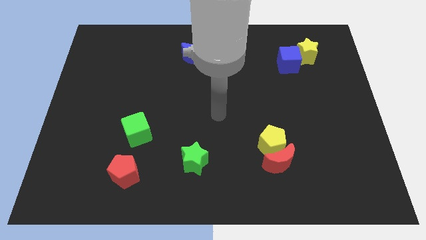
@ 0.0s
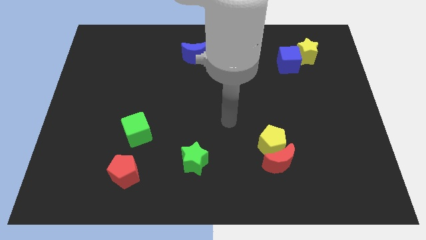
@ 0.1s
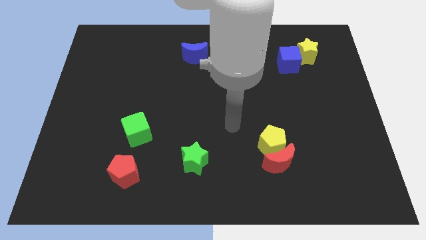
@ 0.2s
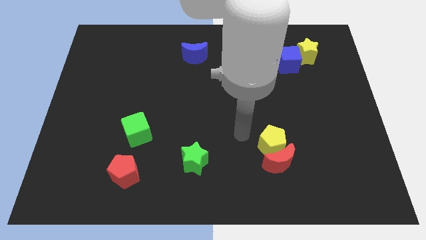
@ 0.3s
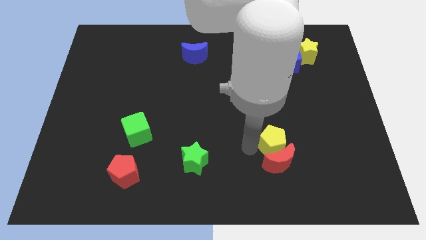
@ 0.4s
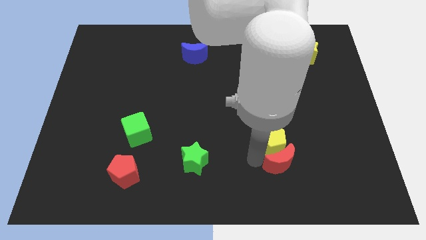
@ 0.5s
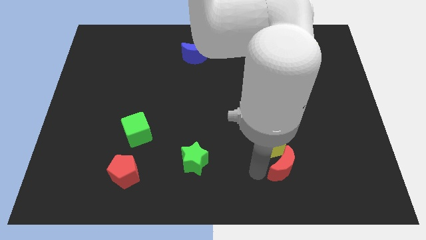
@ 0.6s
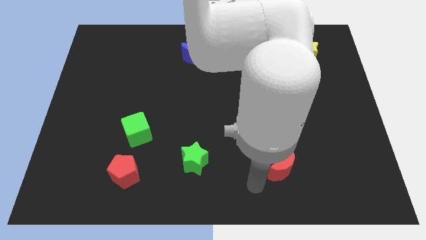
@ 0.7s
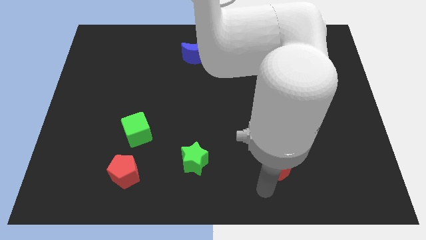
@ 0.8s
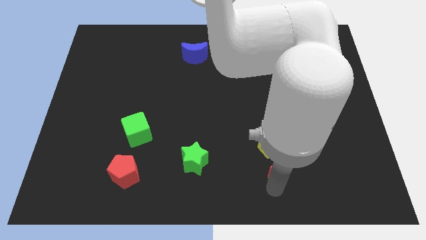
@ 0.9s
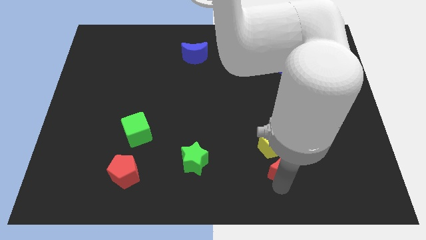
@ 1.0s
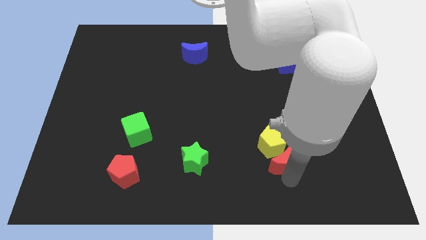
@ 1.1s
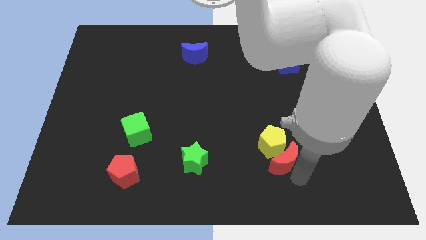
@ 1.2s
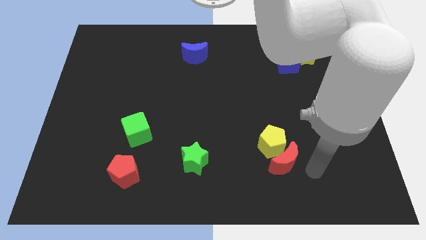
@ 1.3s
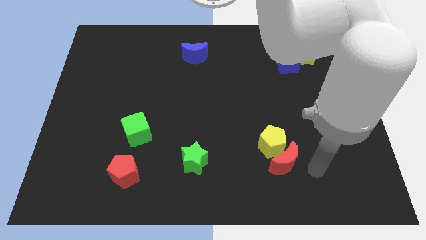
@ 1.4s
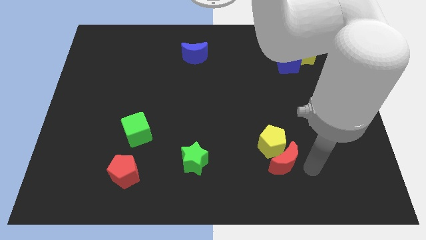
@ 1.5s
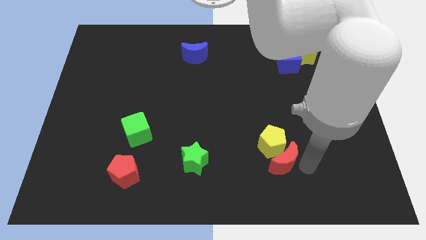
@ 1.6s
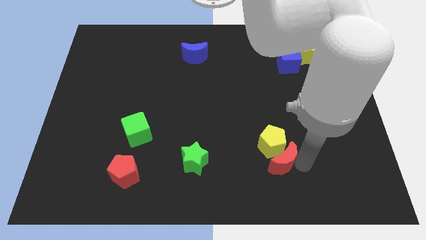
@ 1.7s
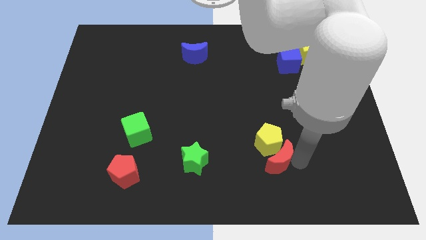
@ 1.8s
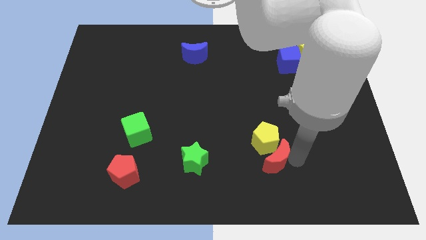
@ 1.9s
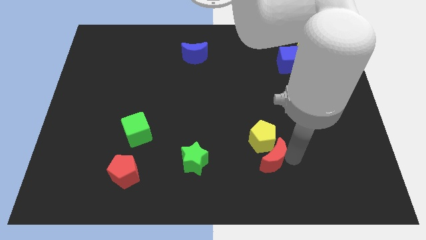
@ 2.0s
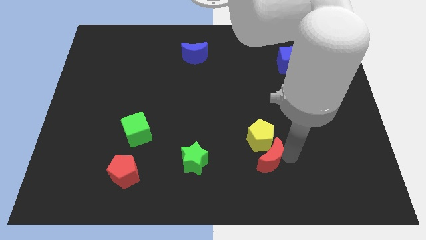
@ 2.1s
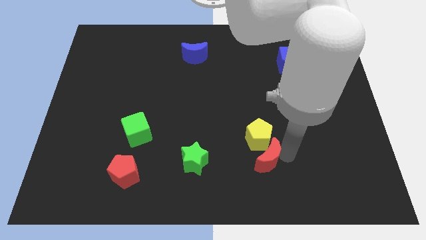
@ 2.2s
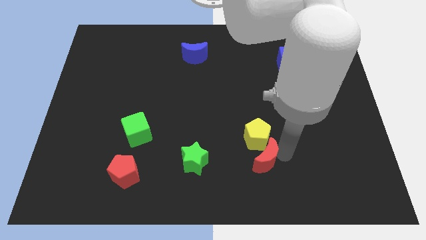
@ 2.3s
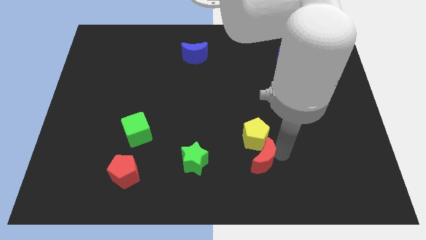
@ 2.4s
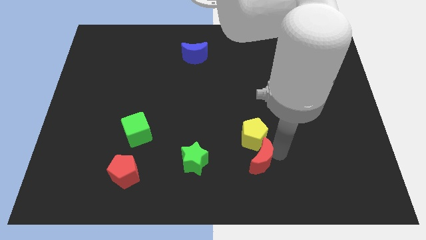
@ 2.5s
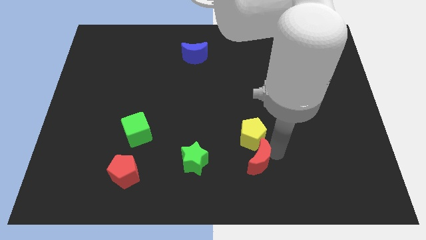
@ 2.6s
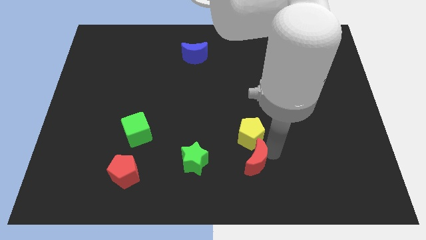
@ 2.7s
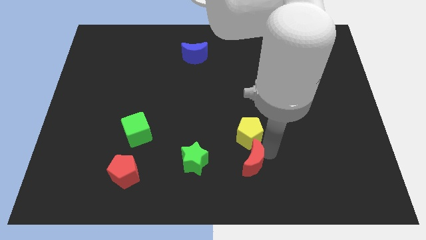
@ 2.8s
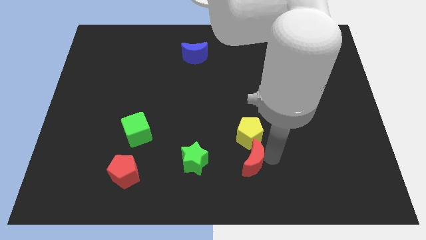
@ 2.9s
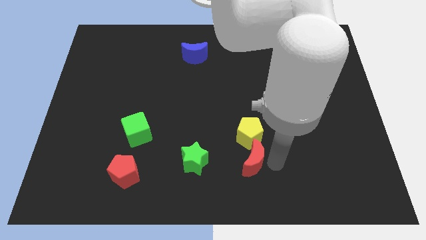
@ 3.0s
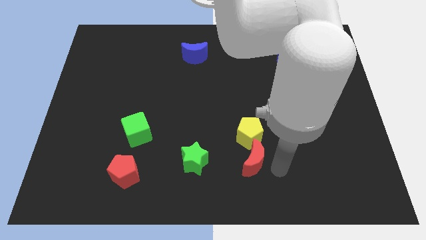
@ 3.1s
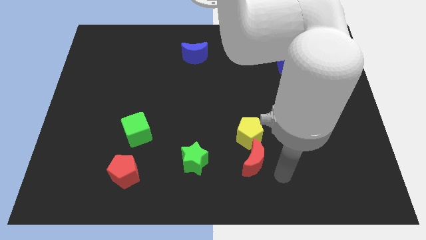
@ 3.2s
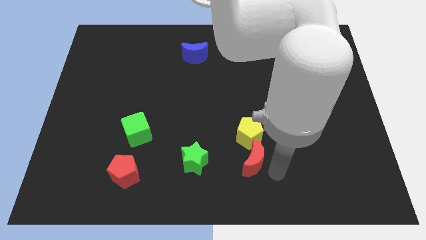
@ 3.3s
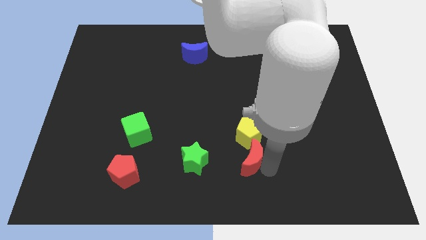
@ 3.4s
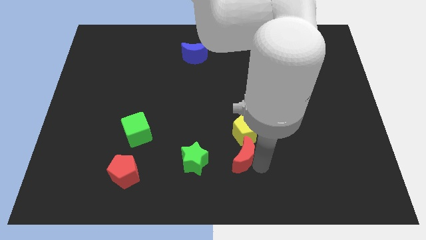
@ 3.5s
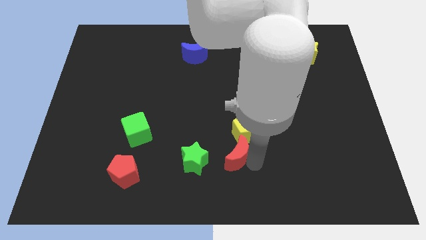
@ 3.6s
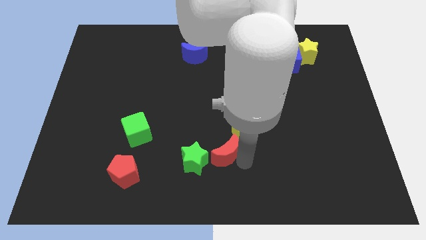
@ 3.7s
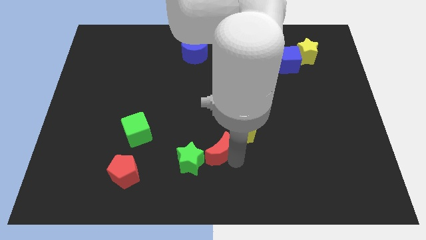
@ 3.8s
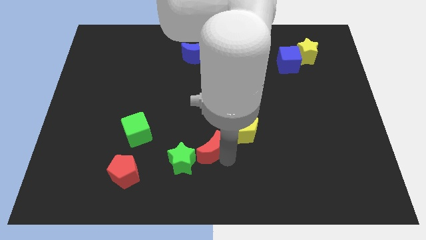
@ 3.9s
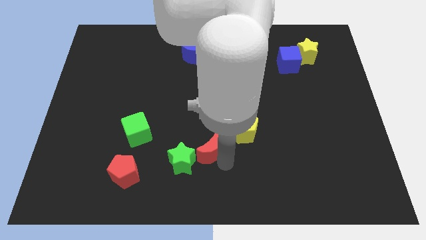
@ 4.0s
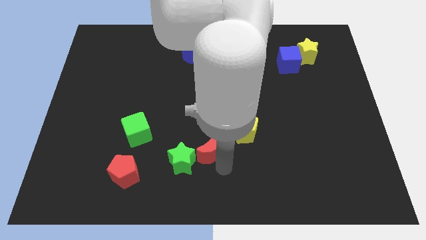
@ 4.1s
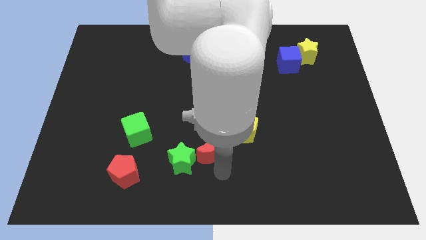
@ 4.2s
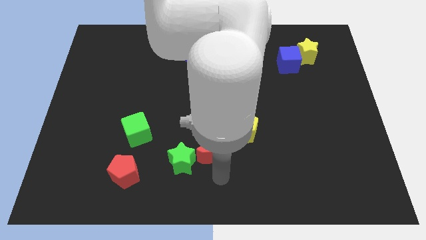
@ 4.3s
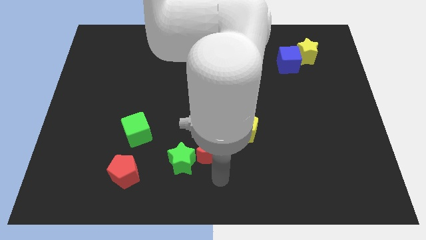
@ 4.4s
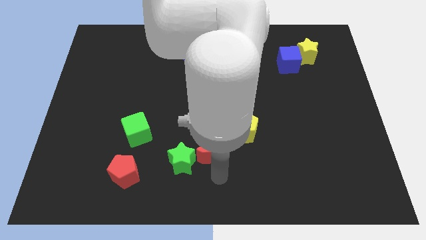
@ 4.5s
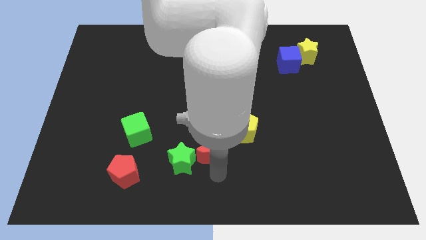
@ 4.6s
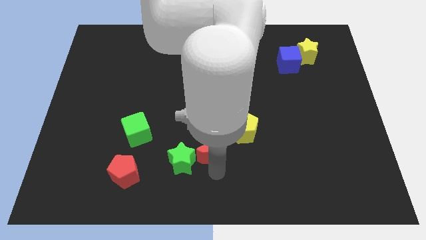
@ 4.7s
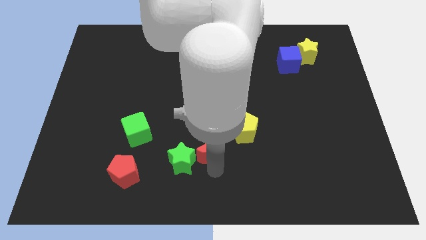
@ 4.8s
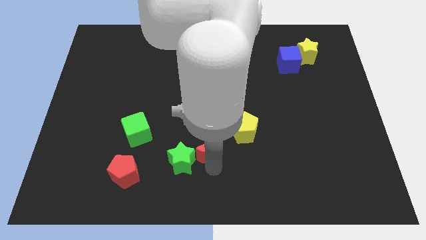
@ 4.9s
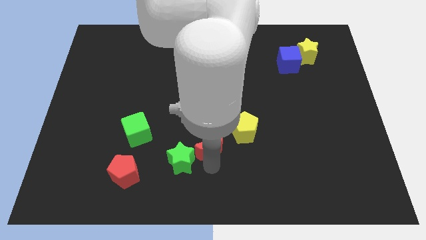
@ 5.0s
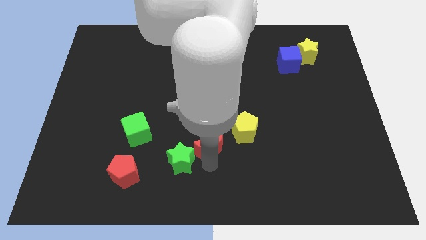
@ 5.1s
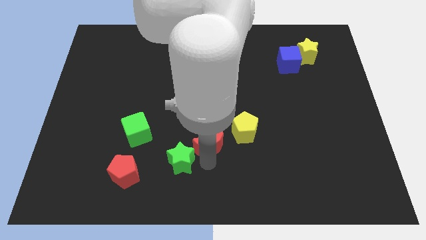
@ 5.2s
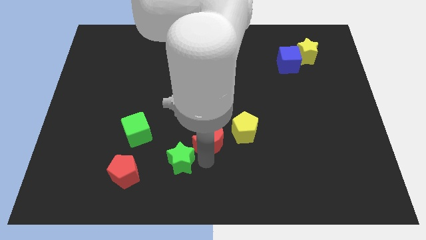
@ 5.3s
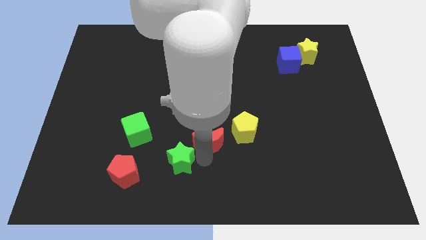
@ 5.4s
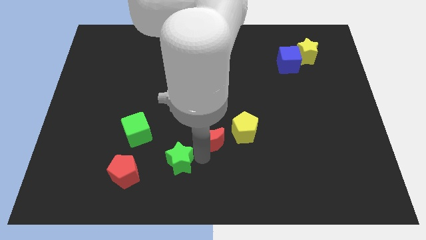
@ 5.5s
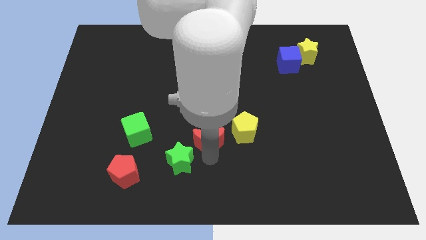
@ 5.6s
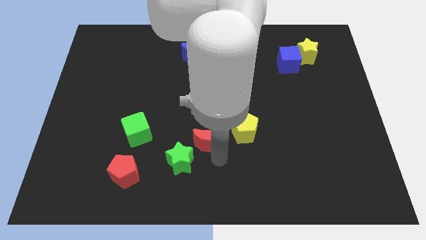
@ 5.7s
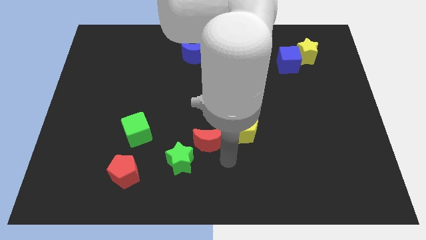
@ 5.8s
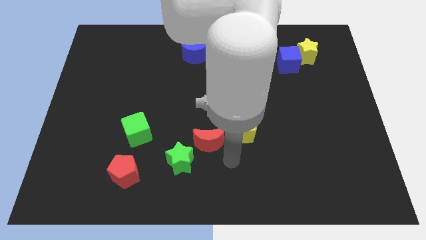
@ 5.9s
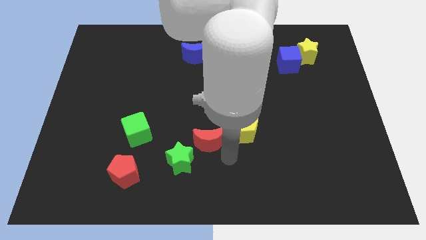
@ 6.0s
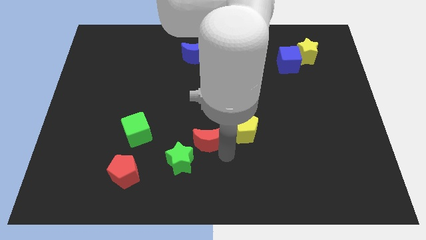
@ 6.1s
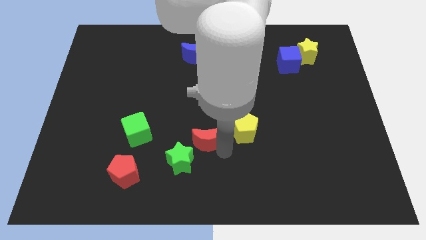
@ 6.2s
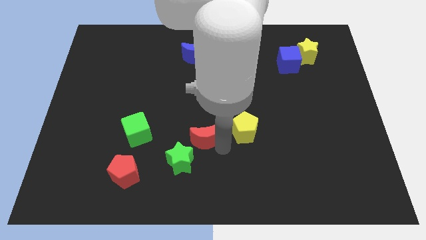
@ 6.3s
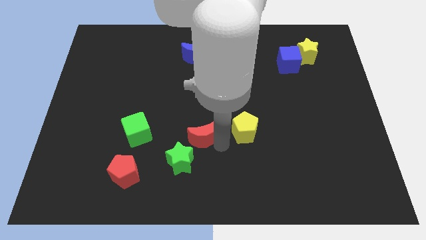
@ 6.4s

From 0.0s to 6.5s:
put the red moon above the green star

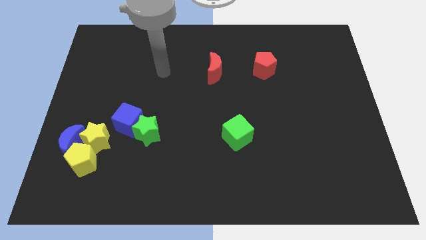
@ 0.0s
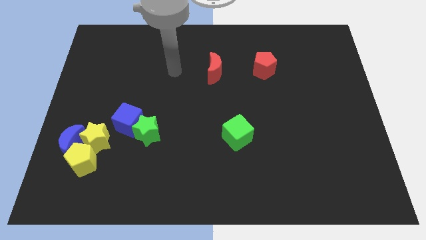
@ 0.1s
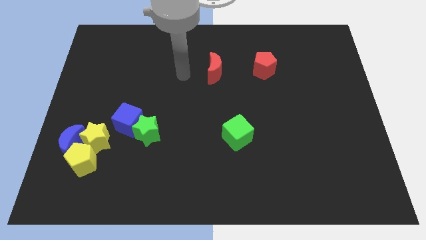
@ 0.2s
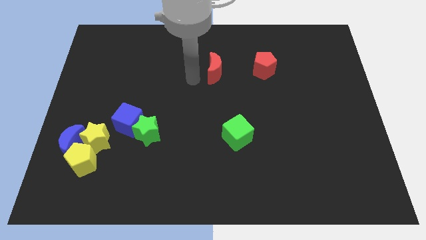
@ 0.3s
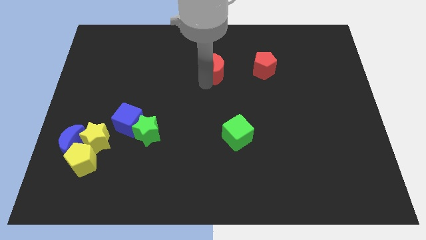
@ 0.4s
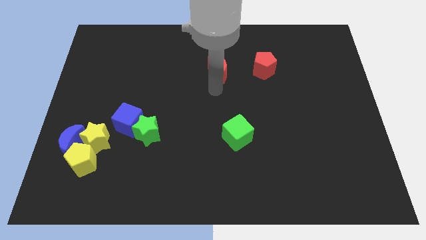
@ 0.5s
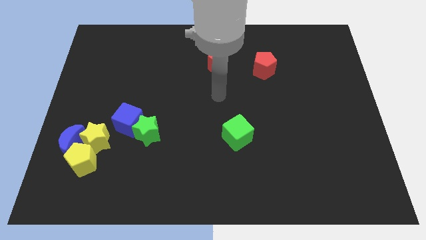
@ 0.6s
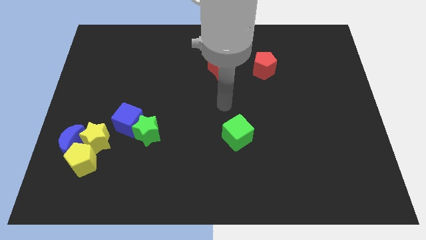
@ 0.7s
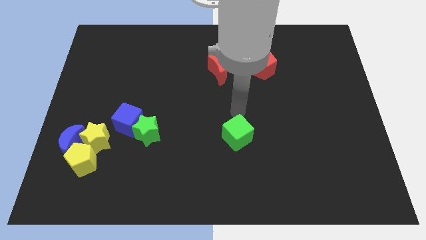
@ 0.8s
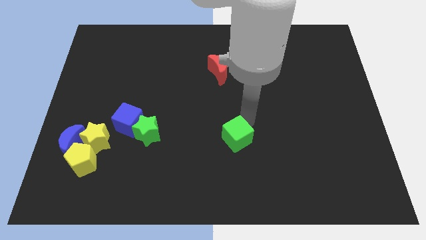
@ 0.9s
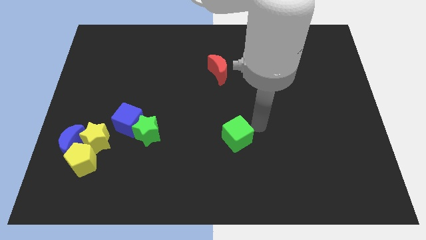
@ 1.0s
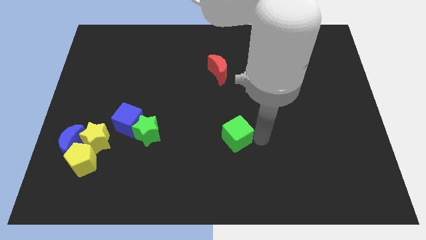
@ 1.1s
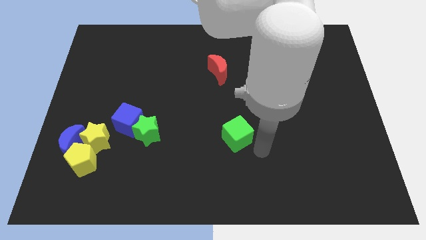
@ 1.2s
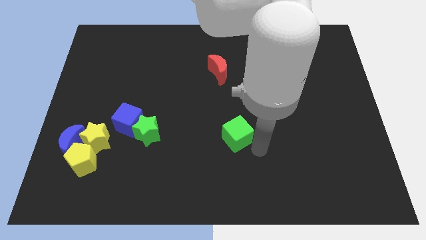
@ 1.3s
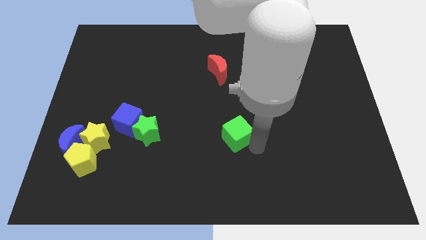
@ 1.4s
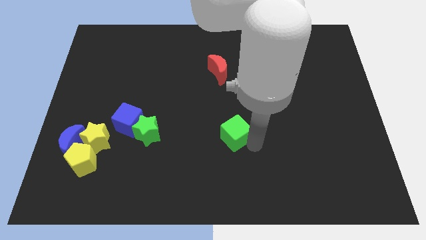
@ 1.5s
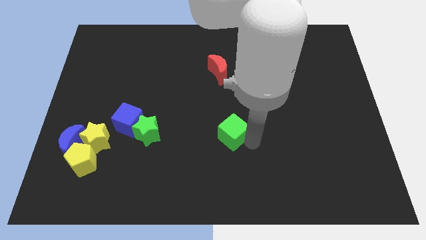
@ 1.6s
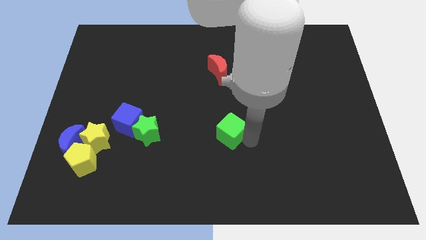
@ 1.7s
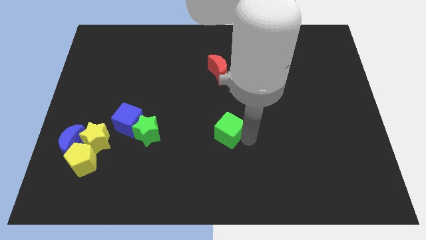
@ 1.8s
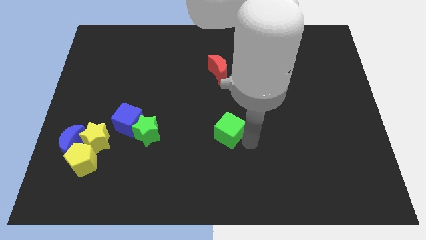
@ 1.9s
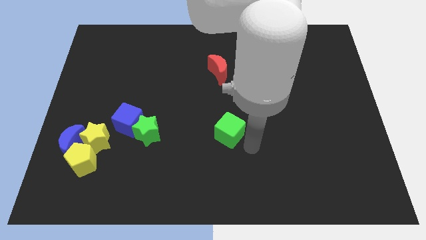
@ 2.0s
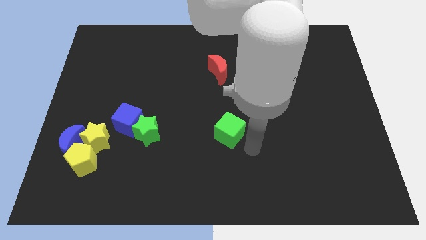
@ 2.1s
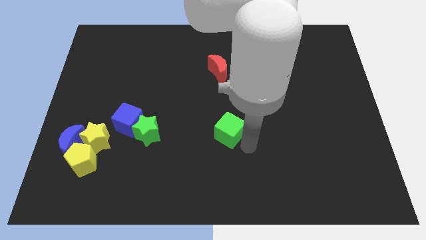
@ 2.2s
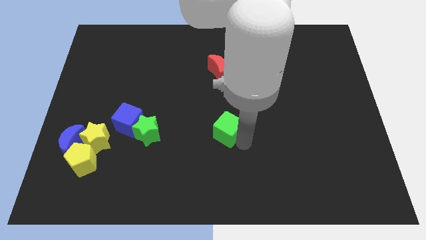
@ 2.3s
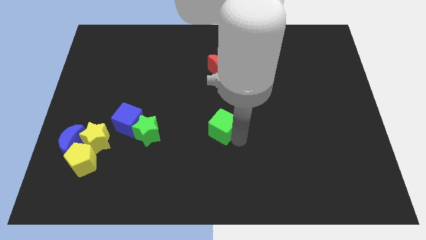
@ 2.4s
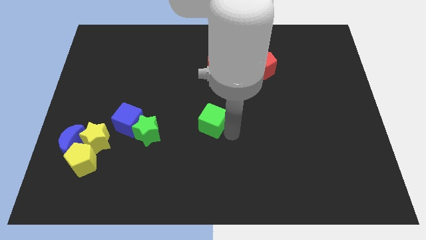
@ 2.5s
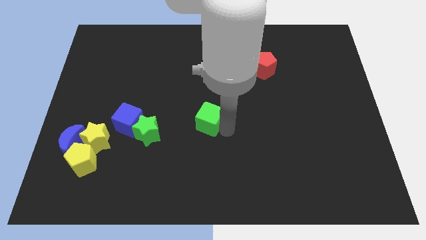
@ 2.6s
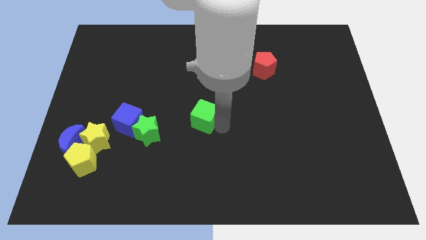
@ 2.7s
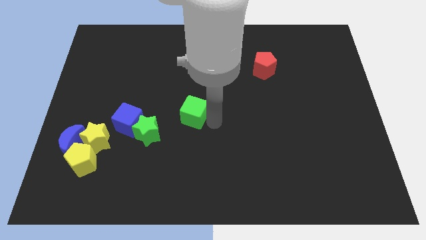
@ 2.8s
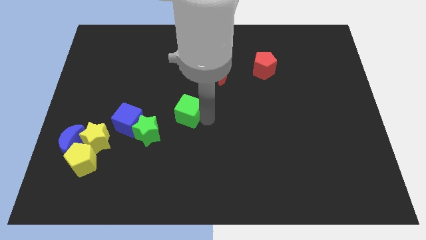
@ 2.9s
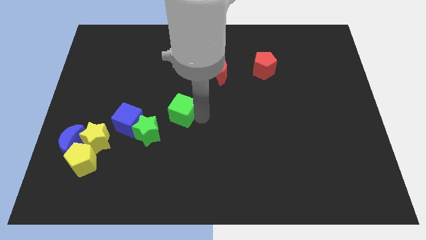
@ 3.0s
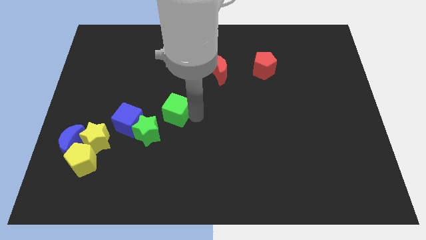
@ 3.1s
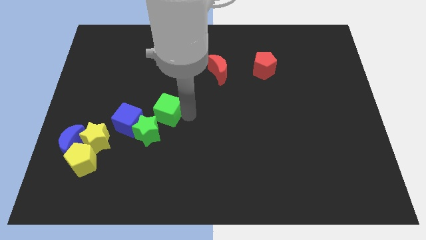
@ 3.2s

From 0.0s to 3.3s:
slide the green cube to the top right side of the blue cube
